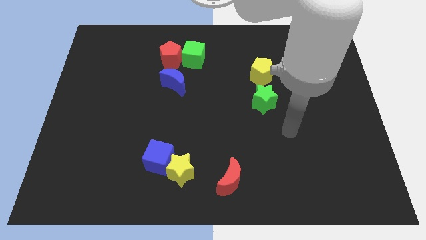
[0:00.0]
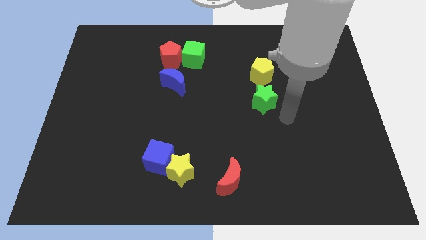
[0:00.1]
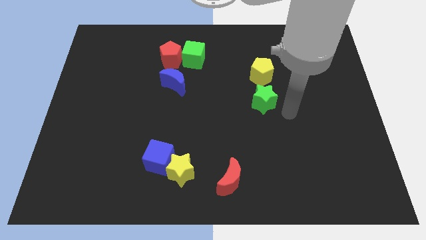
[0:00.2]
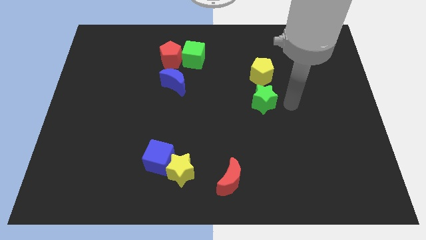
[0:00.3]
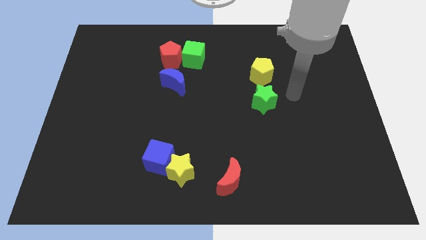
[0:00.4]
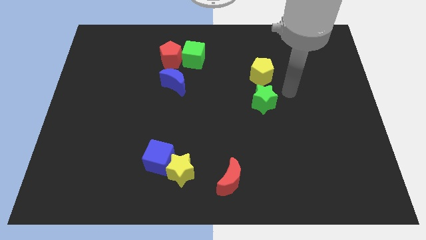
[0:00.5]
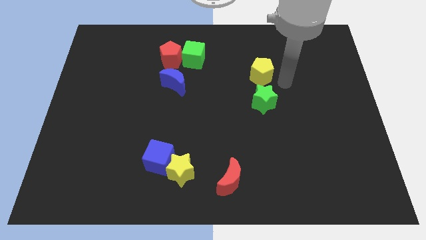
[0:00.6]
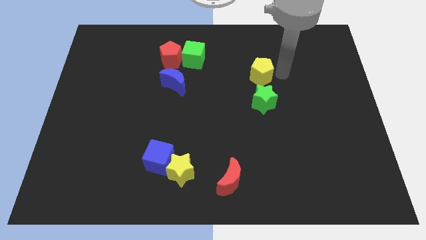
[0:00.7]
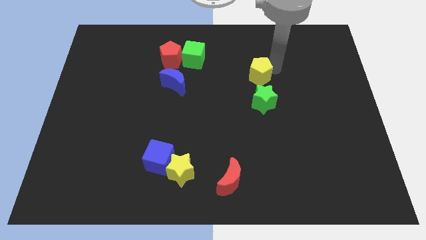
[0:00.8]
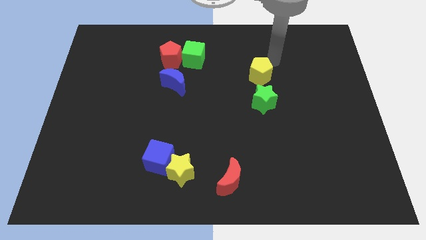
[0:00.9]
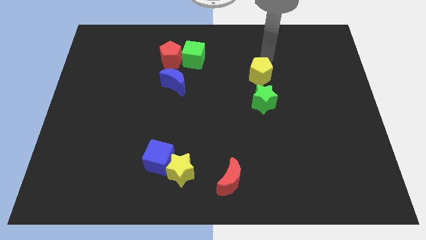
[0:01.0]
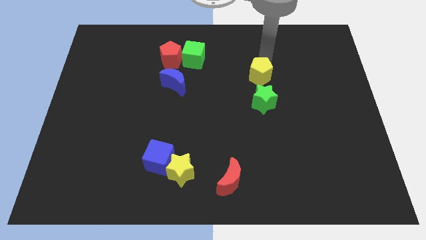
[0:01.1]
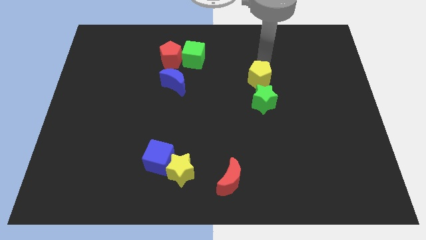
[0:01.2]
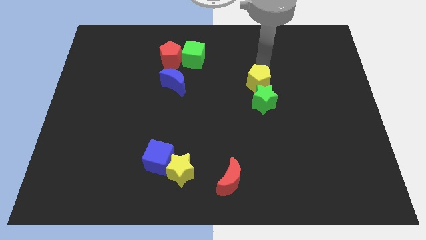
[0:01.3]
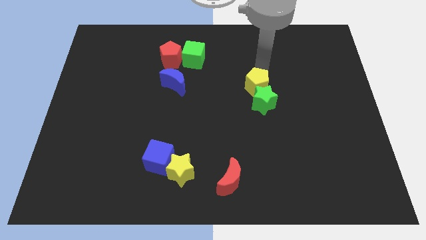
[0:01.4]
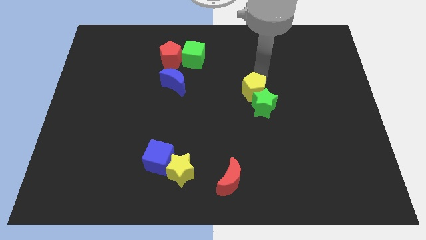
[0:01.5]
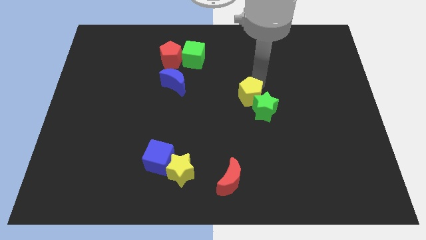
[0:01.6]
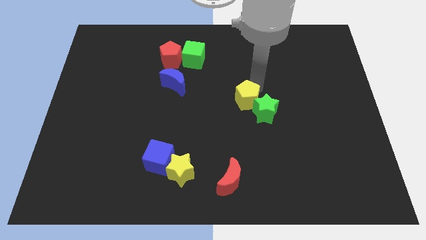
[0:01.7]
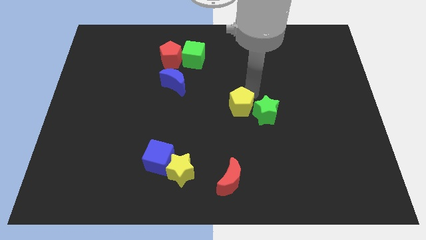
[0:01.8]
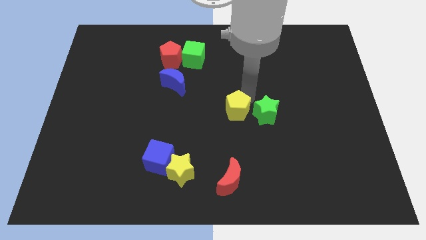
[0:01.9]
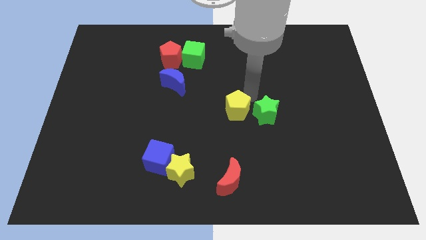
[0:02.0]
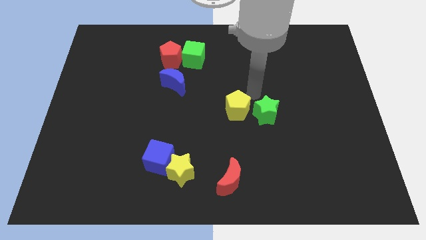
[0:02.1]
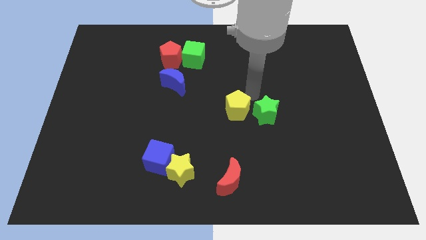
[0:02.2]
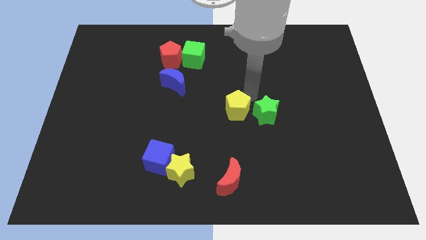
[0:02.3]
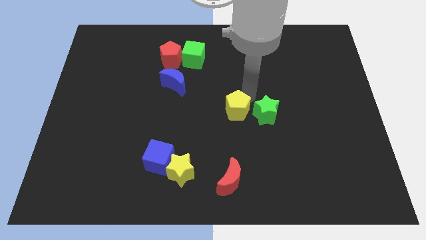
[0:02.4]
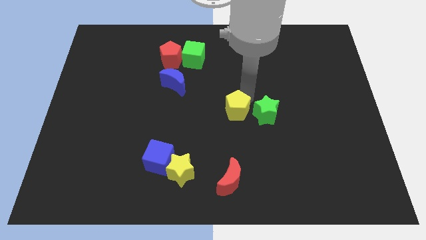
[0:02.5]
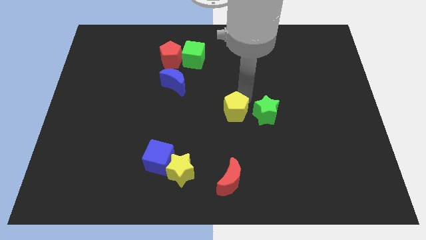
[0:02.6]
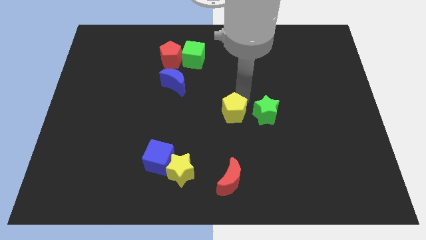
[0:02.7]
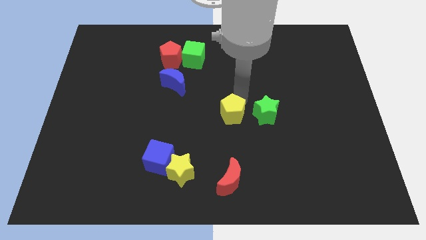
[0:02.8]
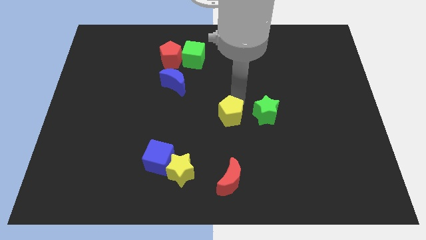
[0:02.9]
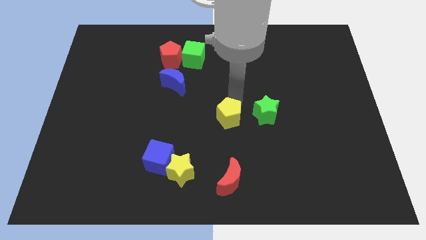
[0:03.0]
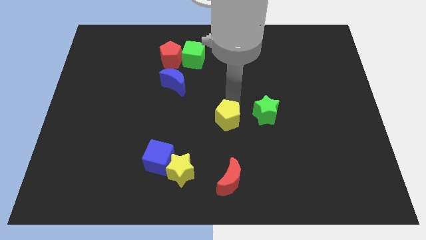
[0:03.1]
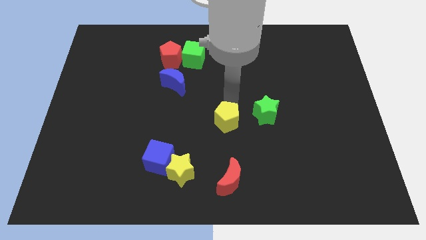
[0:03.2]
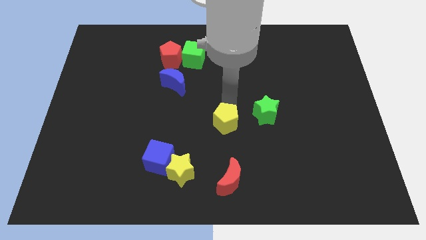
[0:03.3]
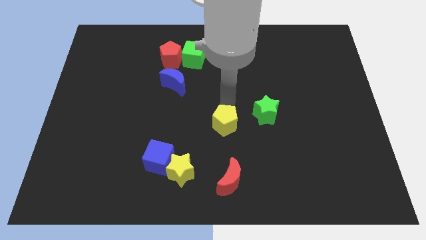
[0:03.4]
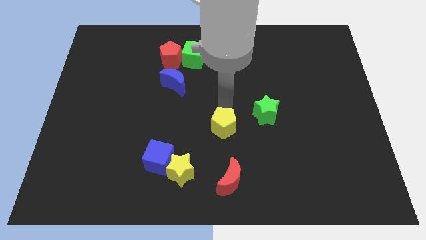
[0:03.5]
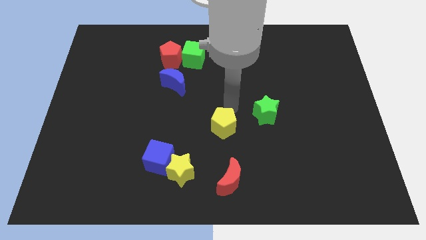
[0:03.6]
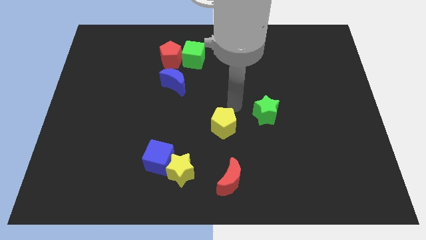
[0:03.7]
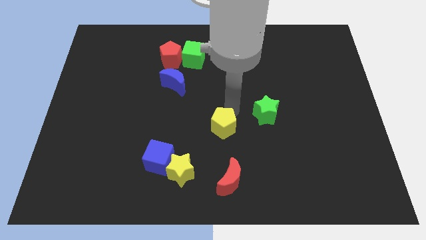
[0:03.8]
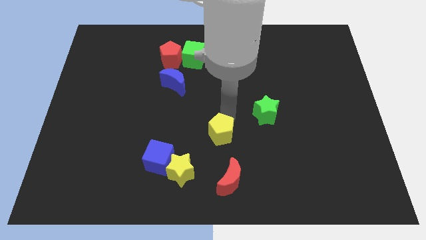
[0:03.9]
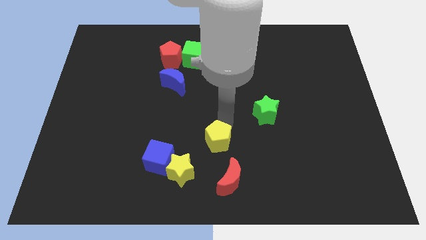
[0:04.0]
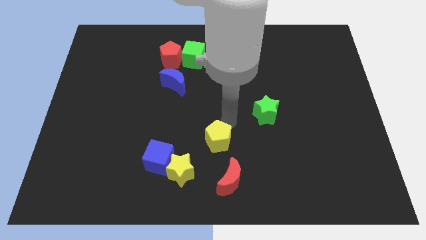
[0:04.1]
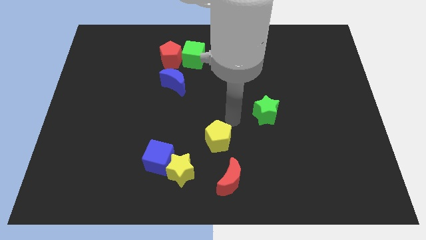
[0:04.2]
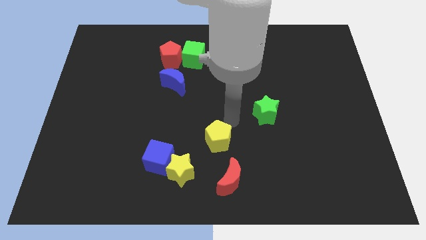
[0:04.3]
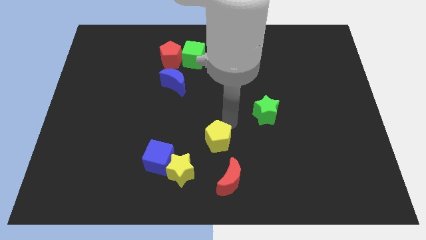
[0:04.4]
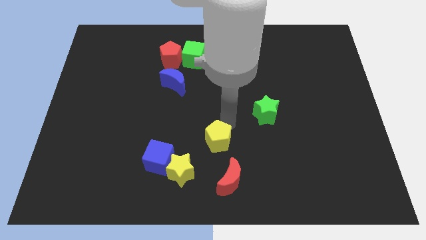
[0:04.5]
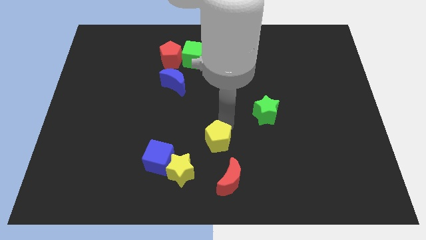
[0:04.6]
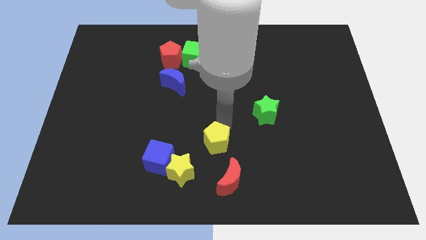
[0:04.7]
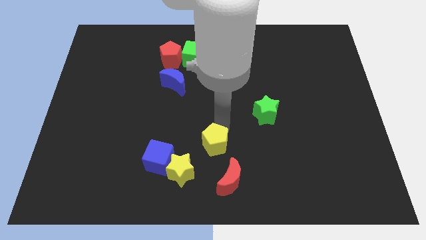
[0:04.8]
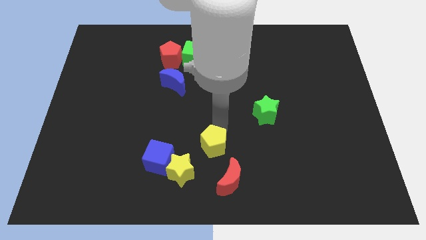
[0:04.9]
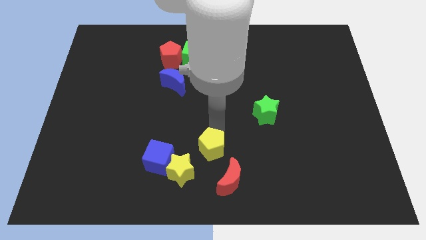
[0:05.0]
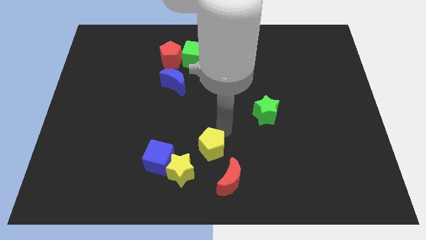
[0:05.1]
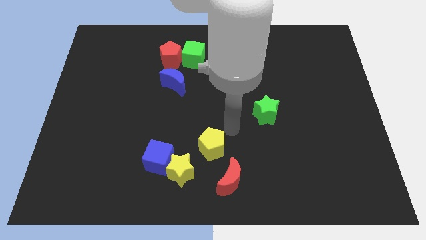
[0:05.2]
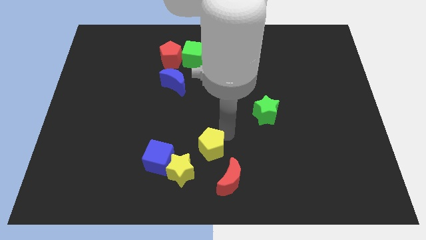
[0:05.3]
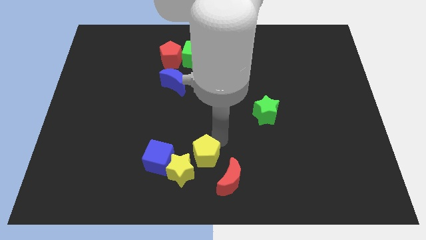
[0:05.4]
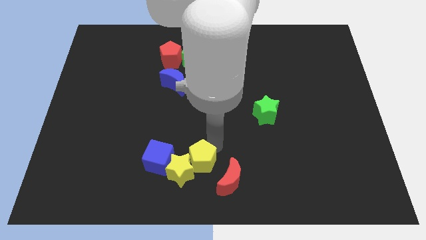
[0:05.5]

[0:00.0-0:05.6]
move the yellow pentagon next to the yellow star

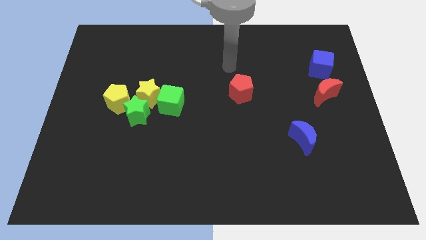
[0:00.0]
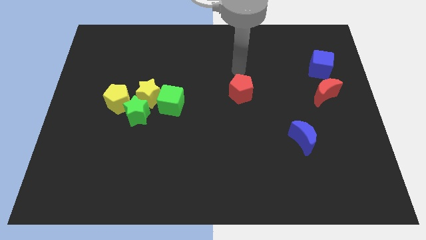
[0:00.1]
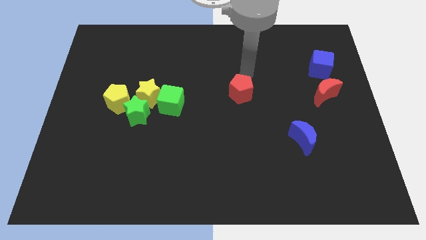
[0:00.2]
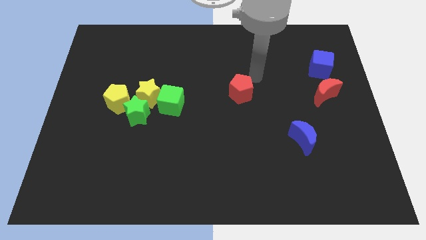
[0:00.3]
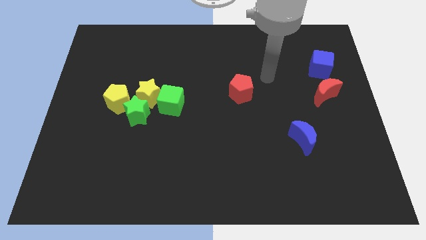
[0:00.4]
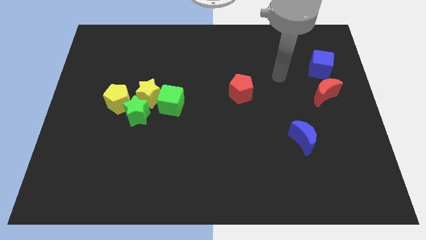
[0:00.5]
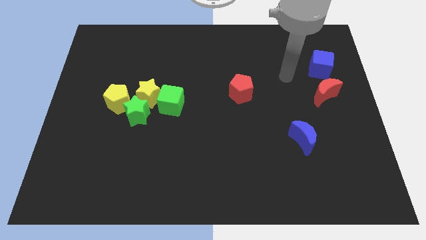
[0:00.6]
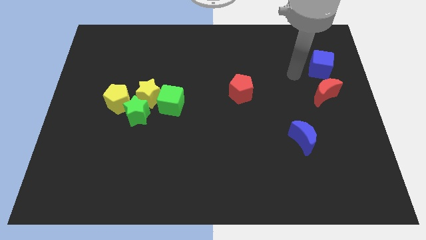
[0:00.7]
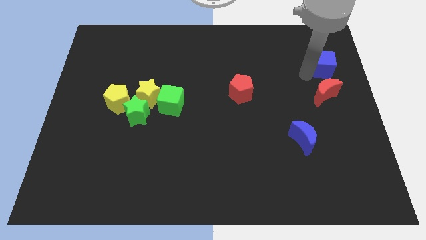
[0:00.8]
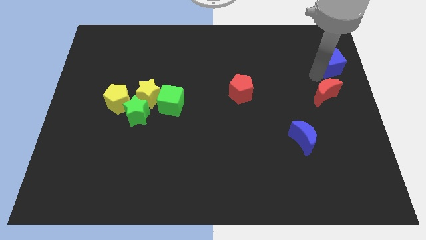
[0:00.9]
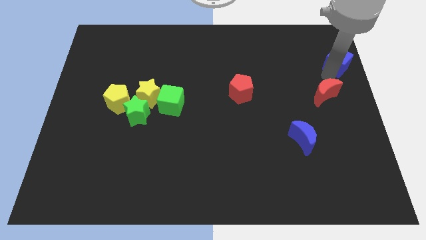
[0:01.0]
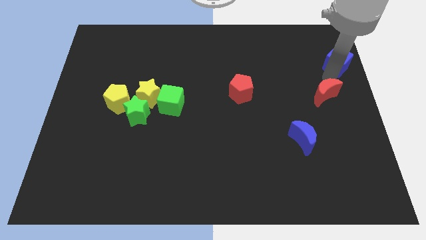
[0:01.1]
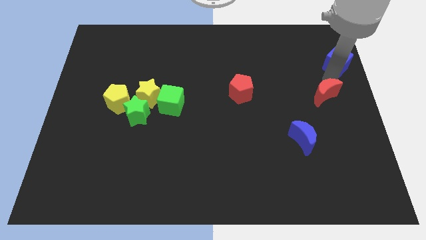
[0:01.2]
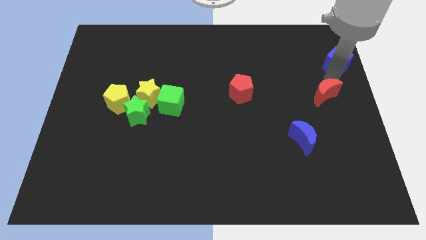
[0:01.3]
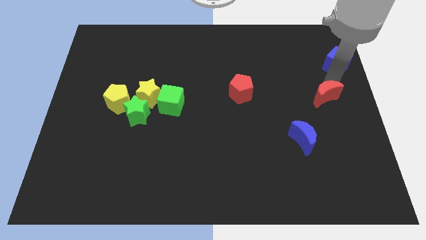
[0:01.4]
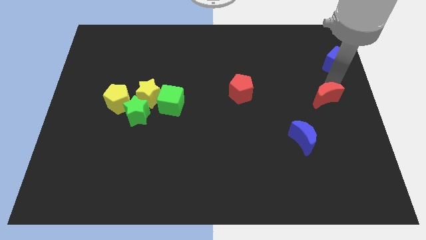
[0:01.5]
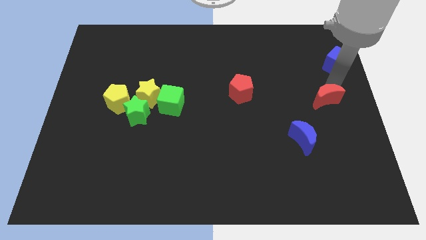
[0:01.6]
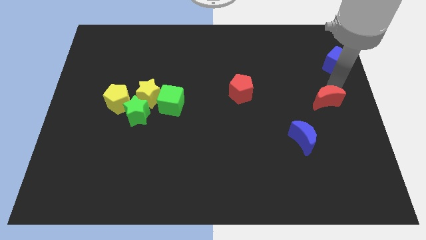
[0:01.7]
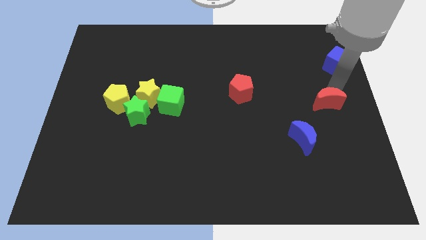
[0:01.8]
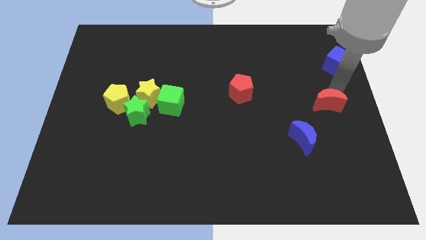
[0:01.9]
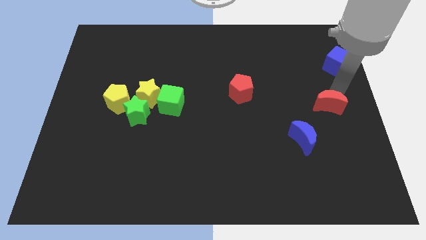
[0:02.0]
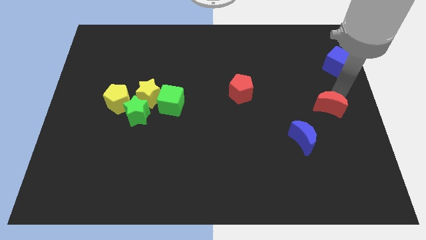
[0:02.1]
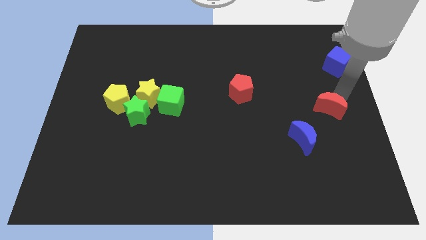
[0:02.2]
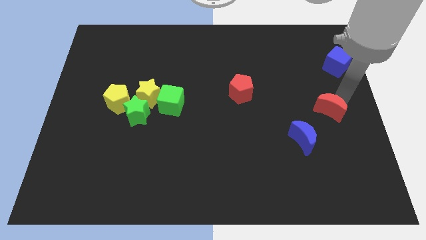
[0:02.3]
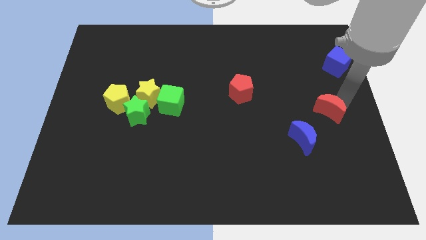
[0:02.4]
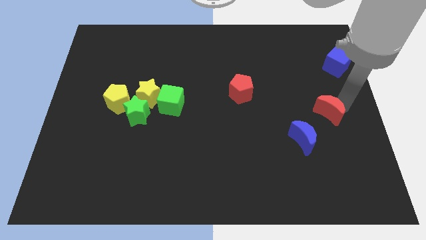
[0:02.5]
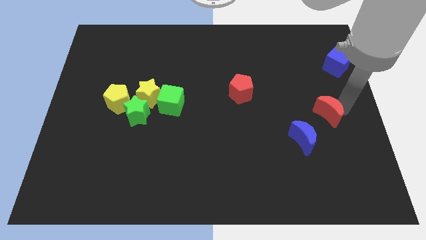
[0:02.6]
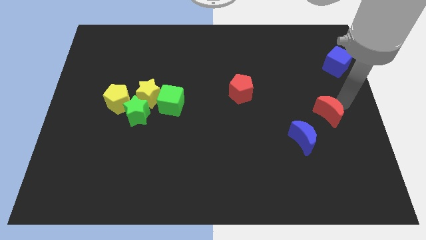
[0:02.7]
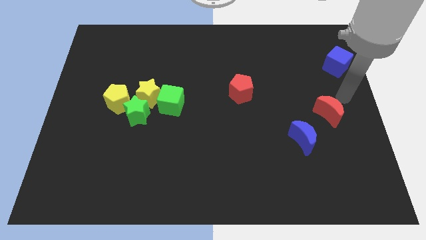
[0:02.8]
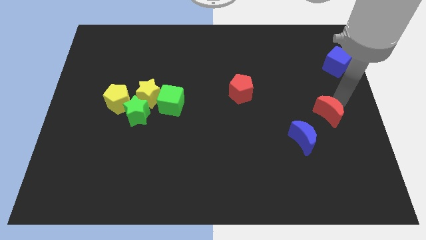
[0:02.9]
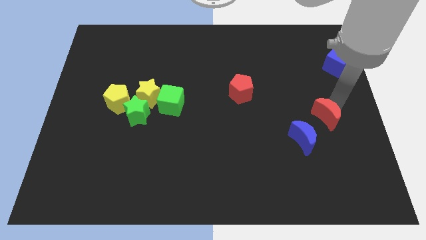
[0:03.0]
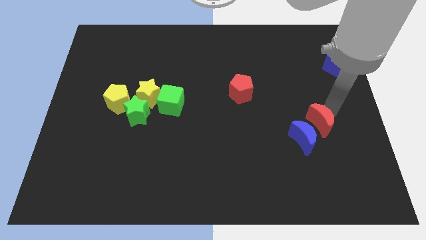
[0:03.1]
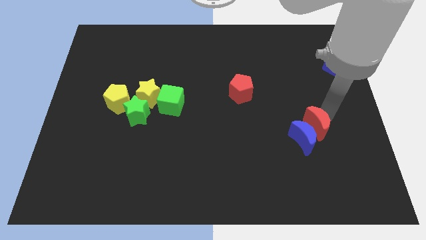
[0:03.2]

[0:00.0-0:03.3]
move the red moon towards the blue moon
